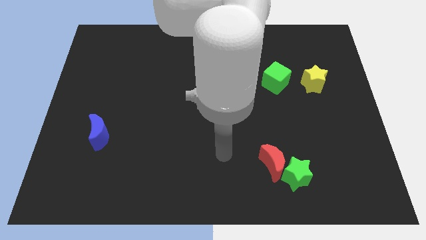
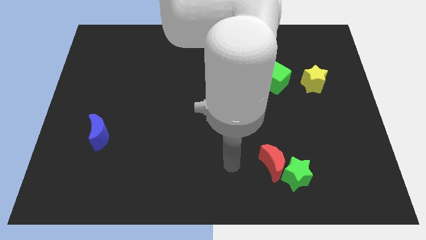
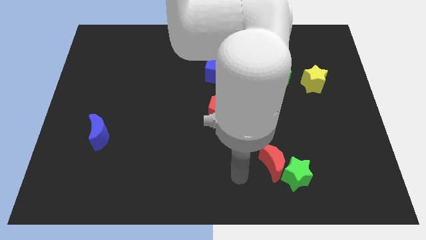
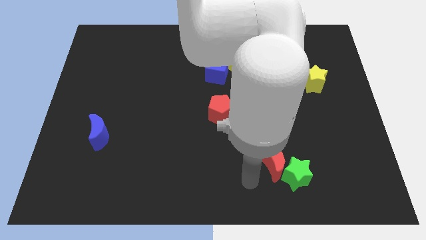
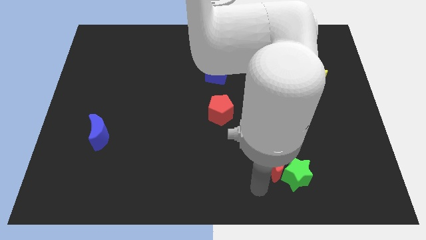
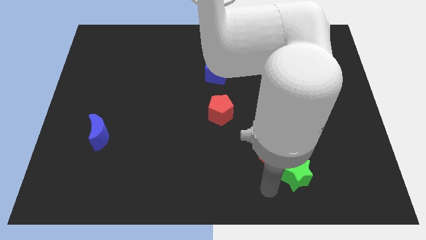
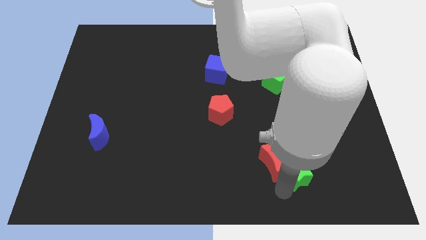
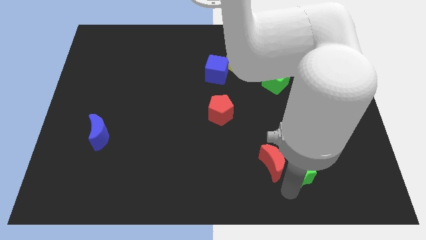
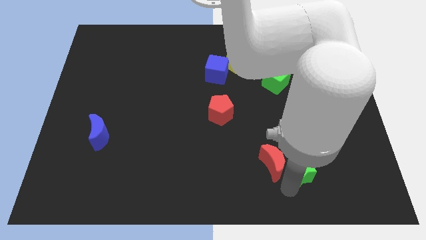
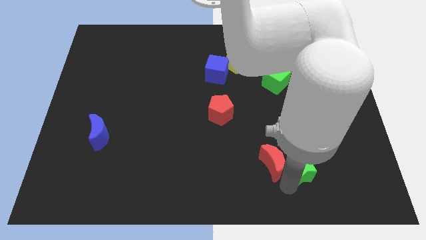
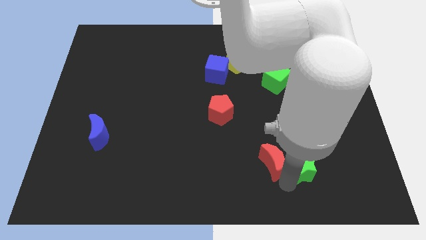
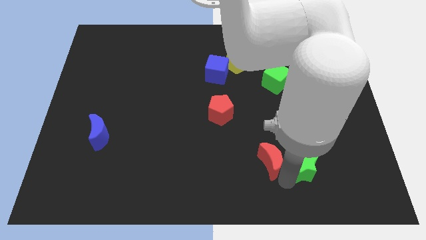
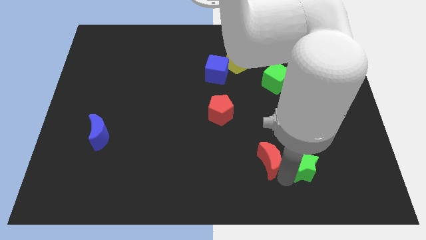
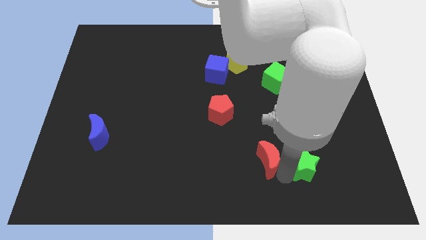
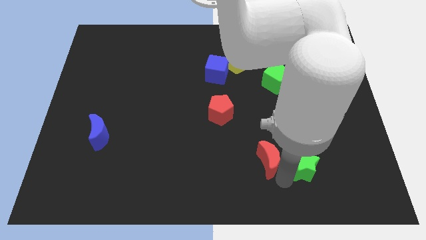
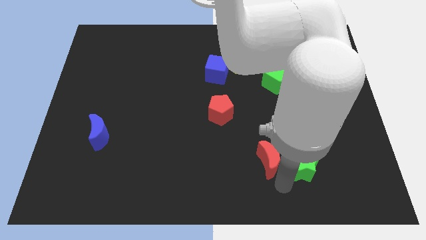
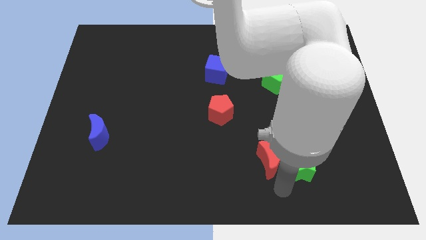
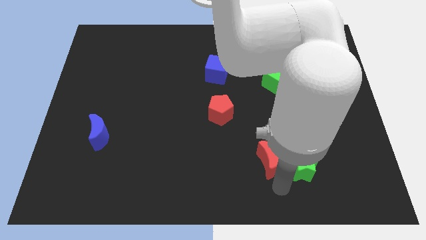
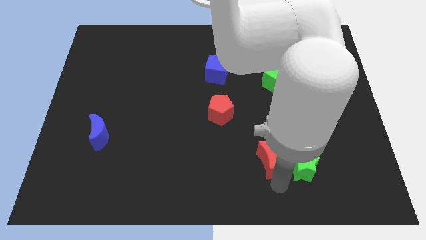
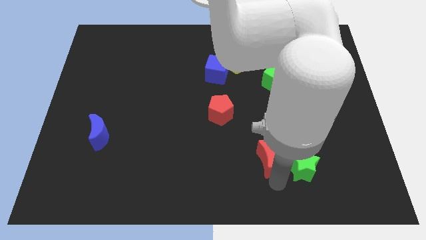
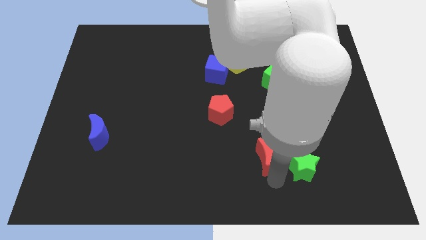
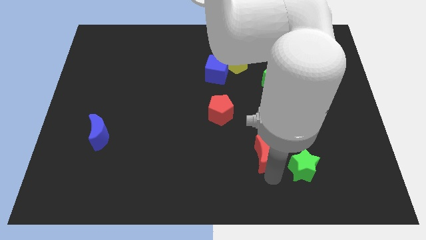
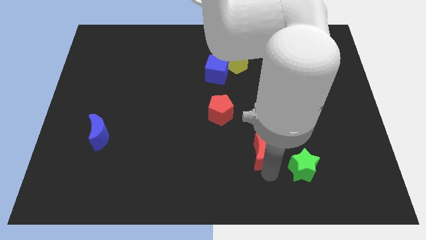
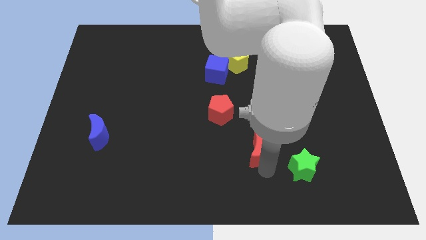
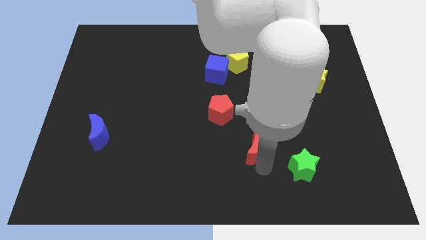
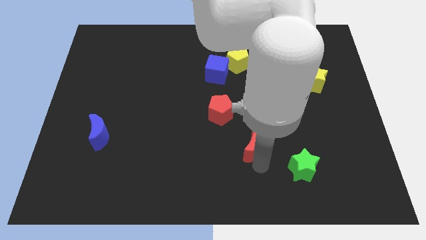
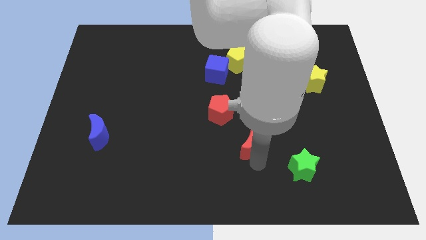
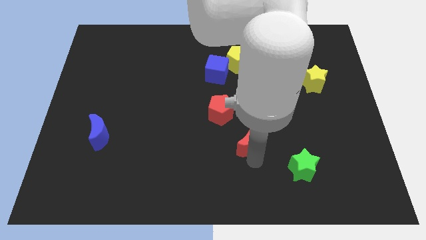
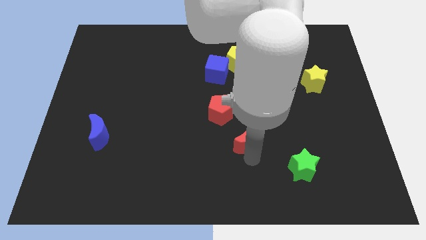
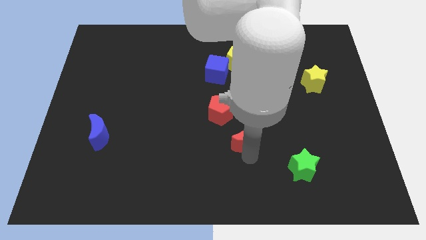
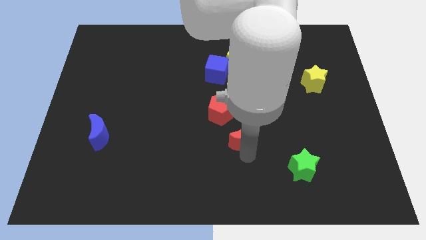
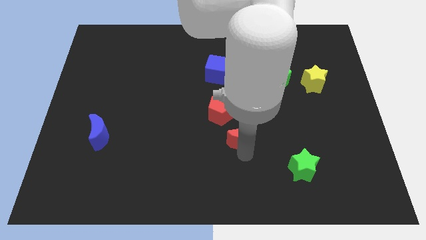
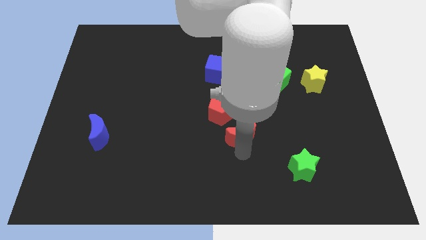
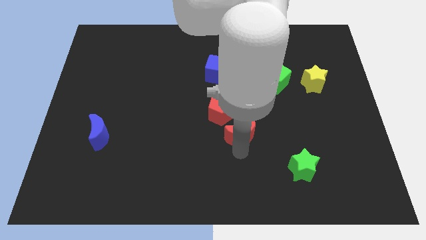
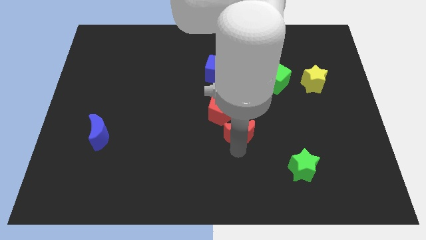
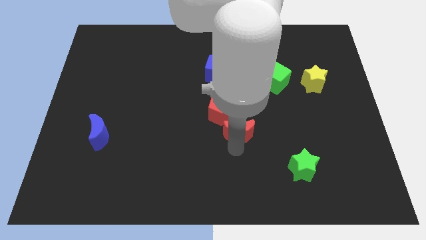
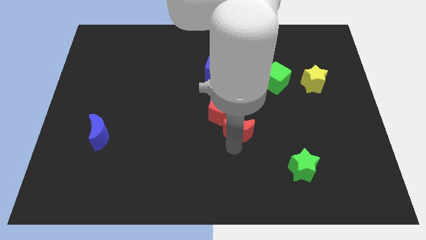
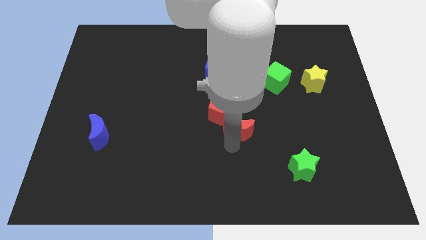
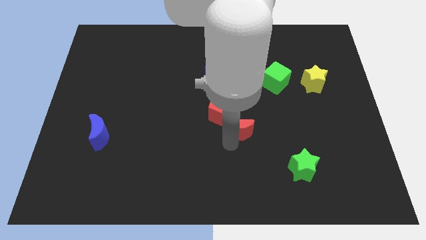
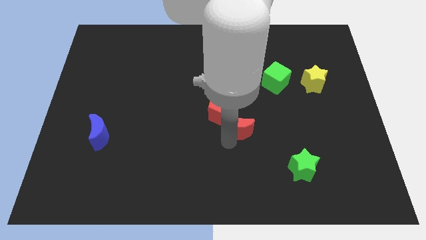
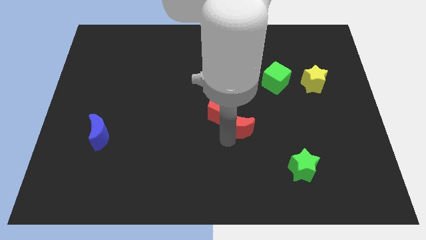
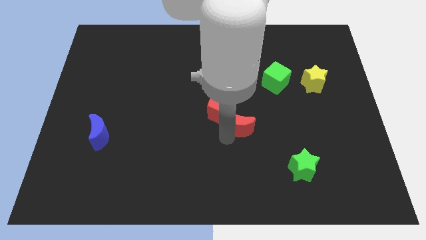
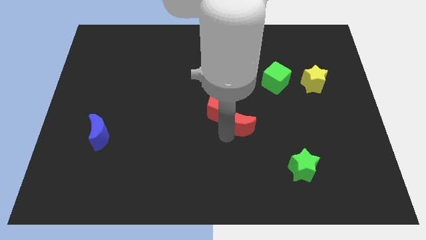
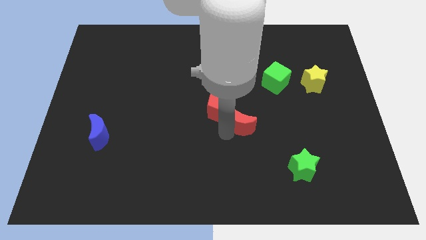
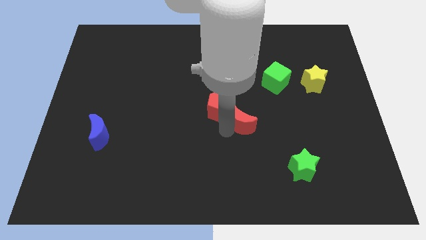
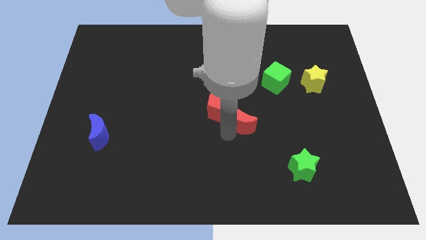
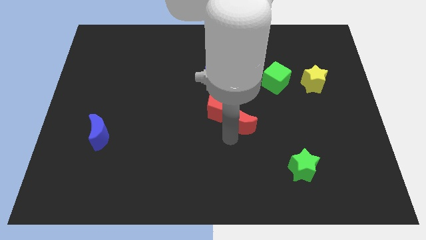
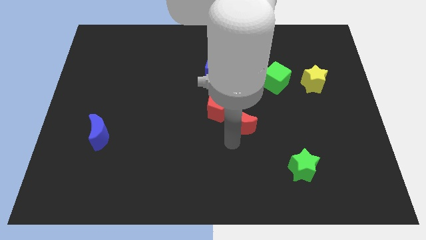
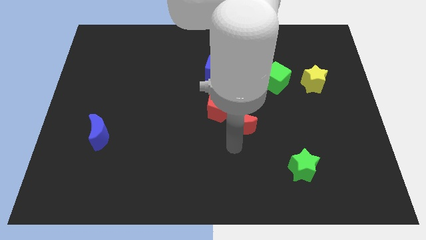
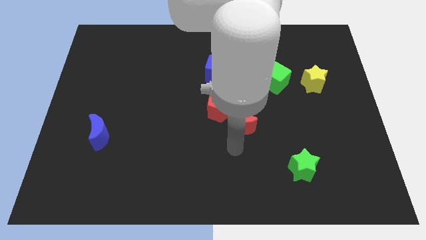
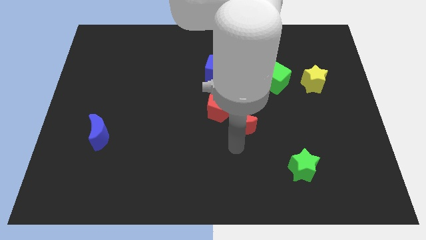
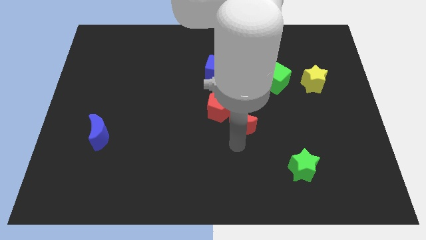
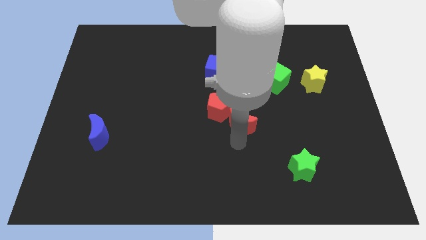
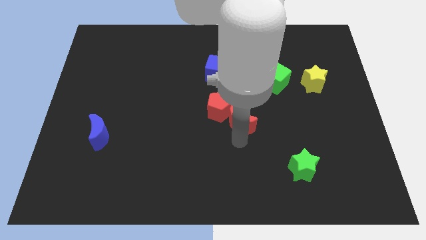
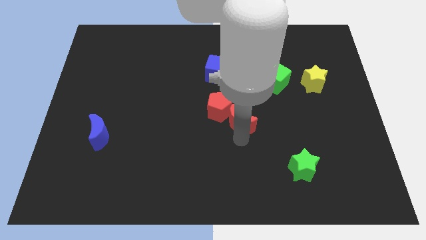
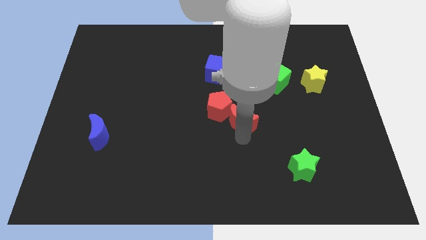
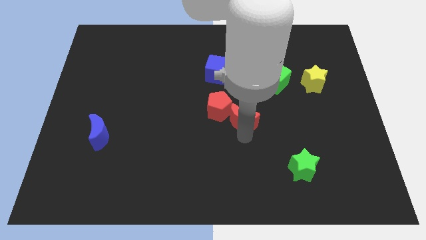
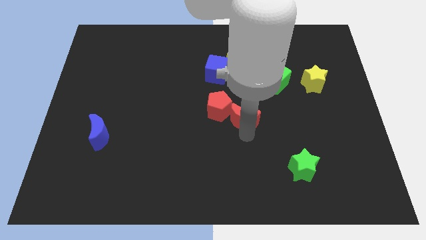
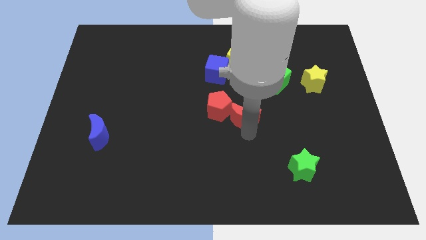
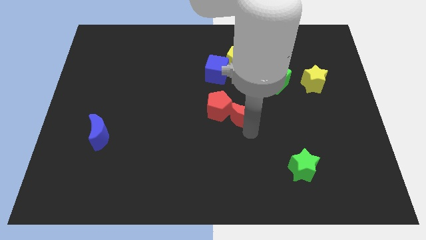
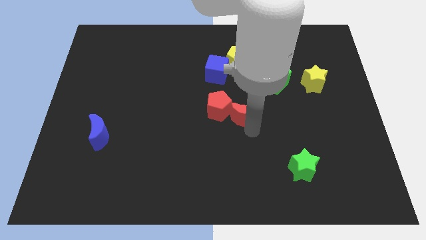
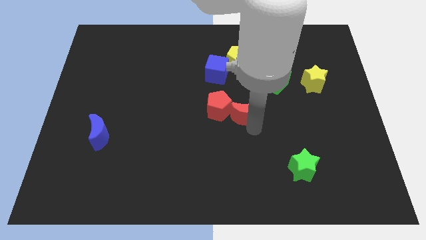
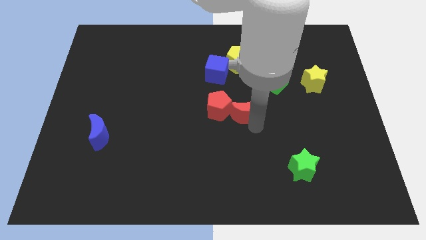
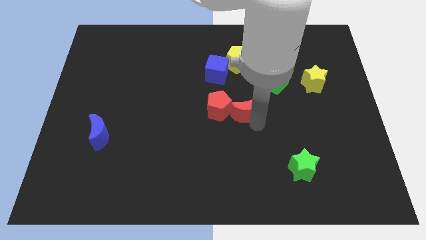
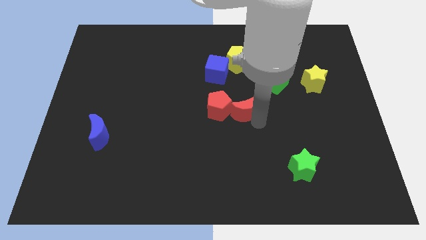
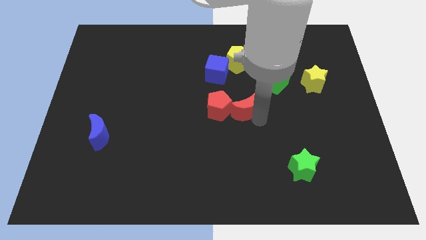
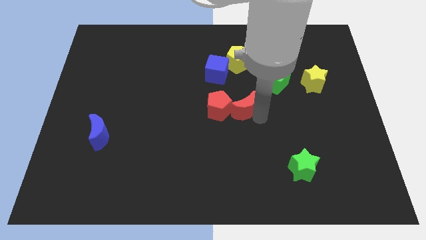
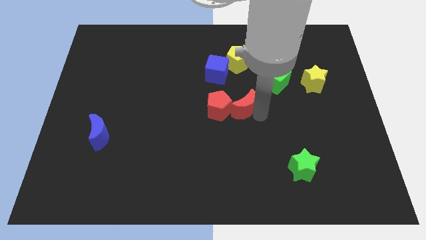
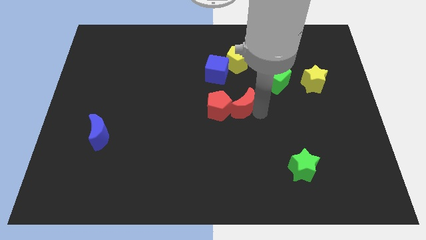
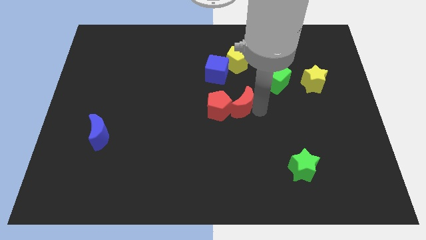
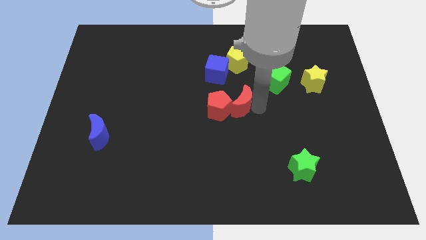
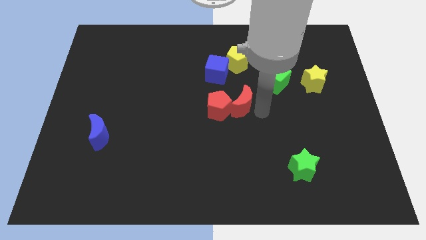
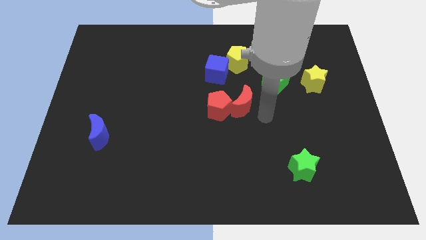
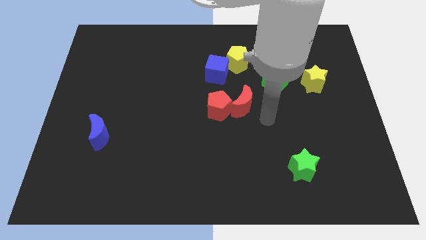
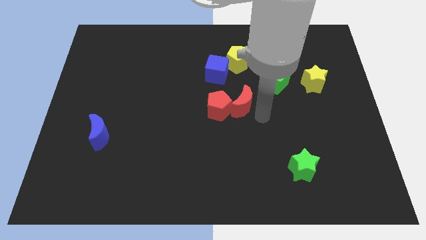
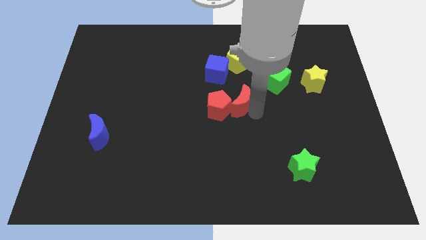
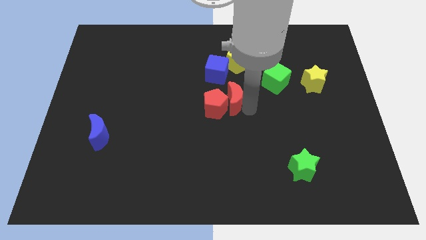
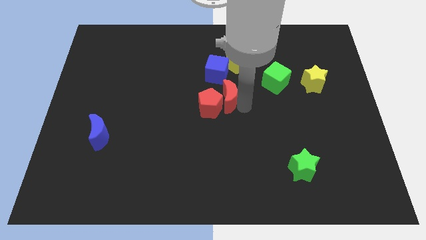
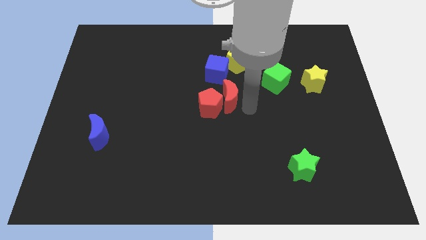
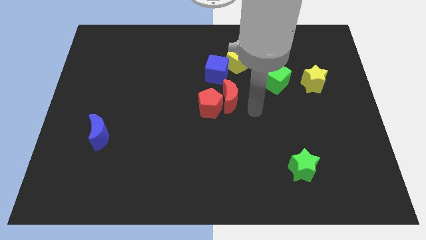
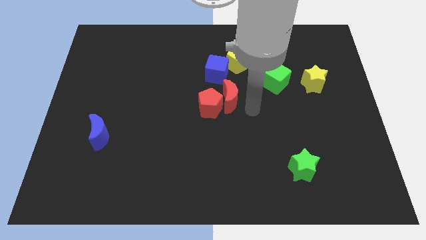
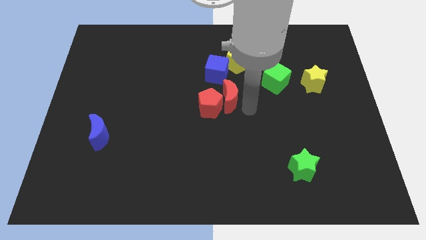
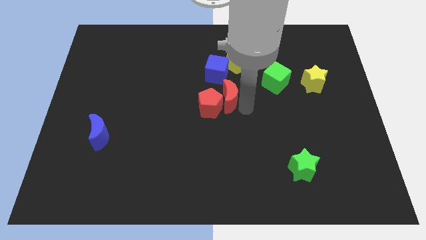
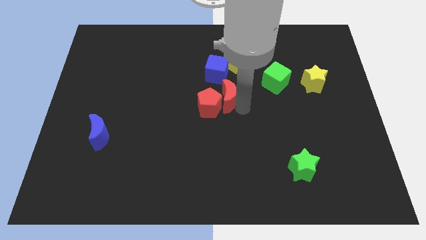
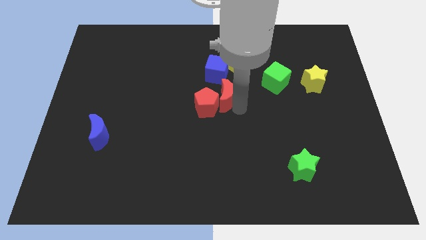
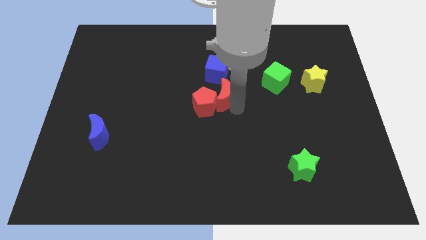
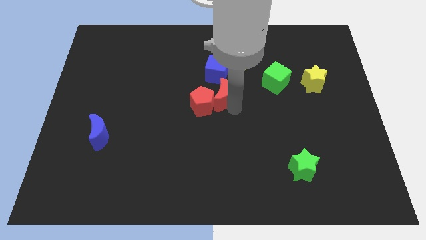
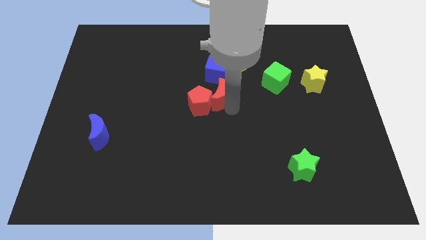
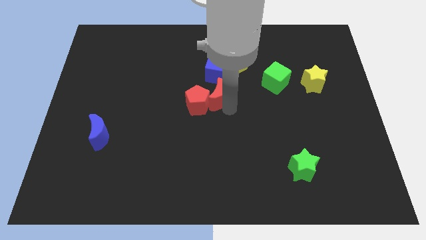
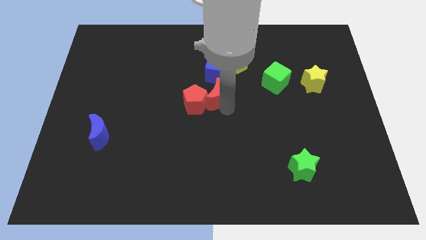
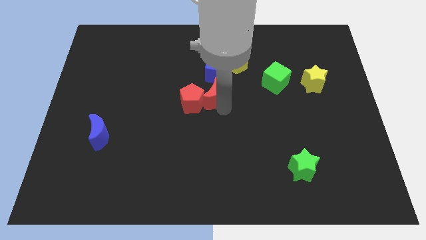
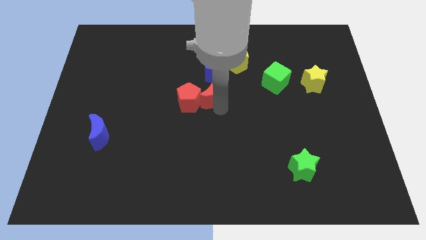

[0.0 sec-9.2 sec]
move the red moon diagonally down and to the left of the blue cube
